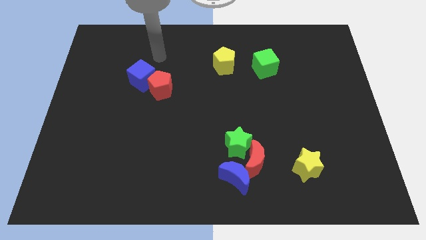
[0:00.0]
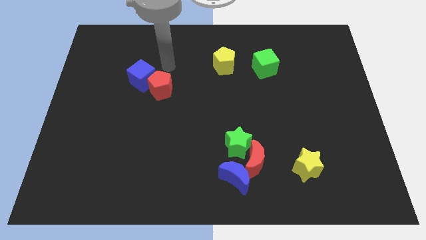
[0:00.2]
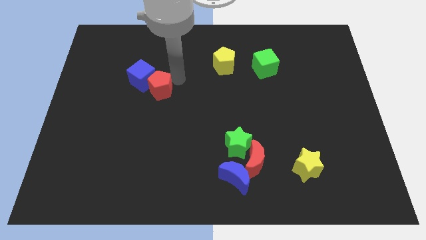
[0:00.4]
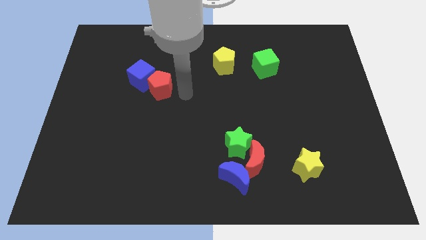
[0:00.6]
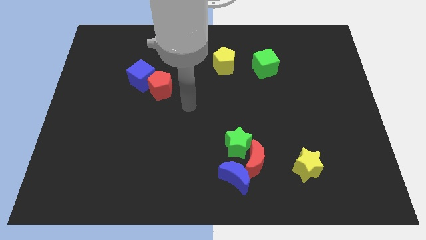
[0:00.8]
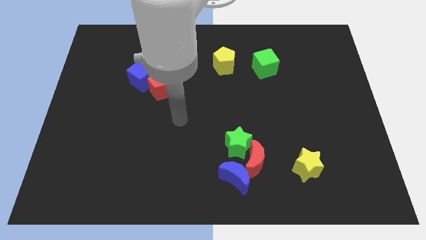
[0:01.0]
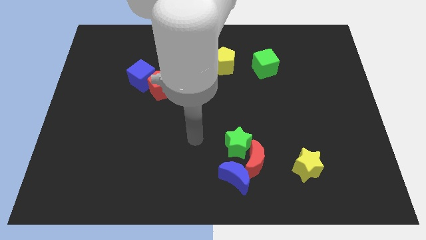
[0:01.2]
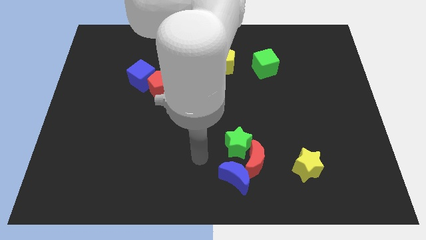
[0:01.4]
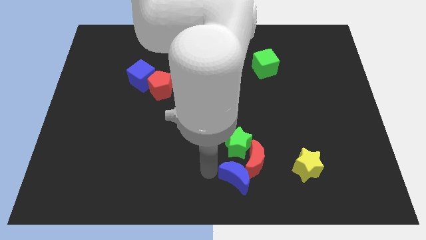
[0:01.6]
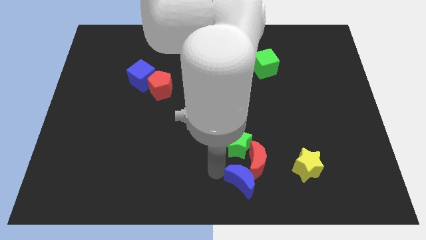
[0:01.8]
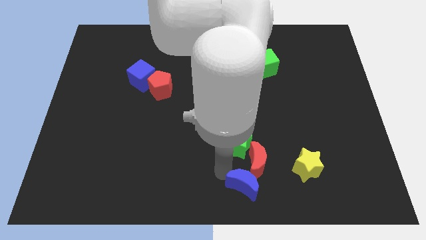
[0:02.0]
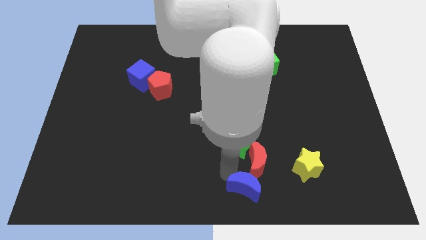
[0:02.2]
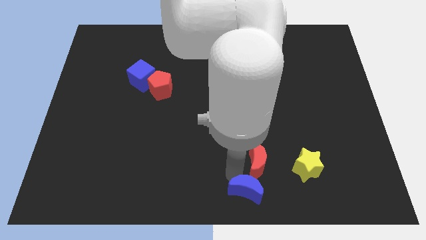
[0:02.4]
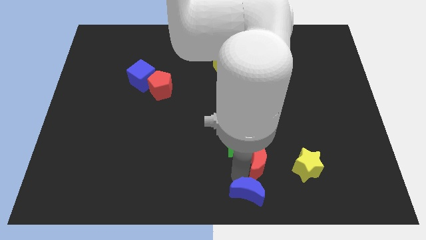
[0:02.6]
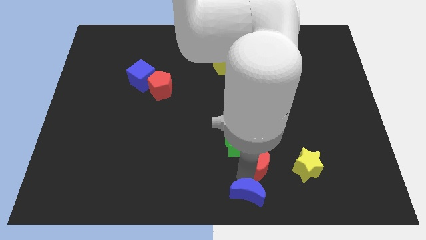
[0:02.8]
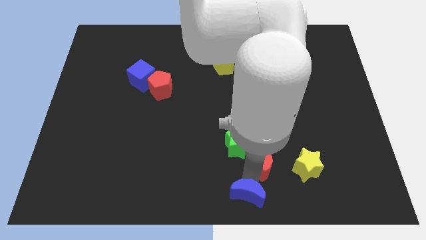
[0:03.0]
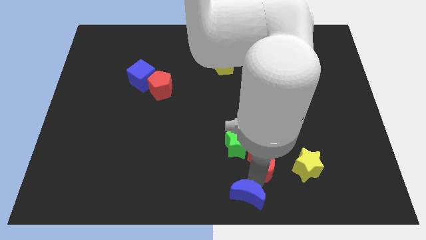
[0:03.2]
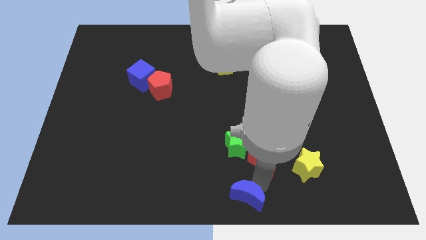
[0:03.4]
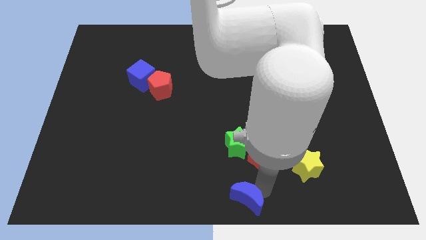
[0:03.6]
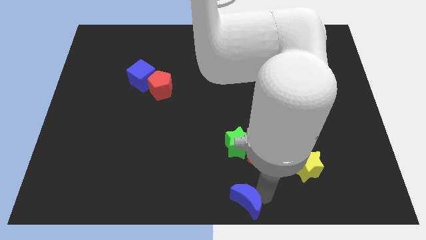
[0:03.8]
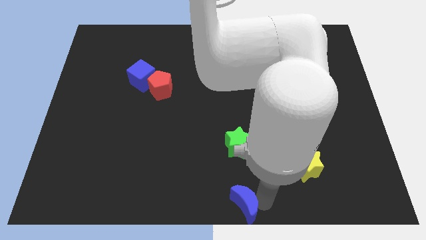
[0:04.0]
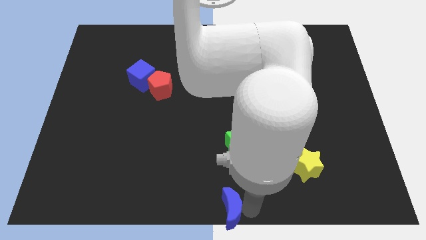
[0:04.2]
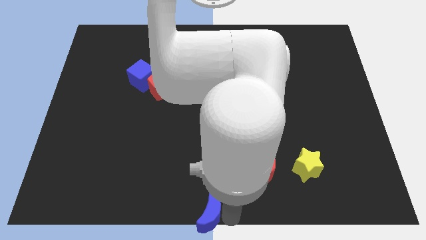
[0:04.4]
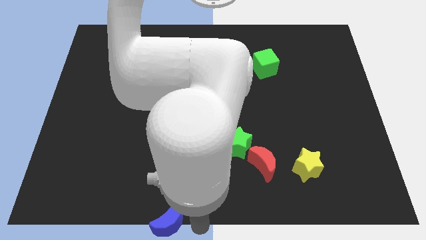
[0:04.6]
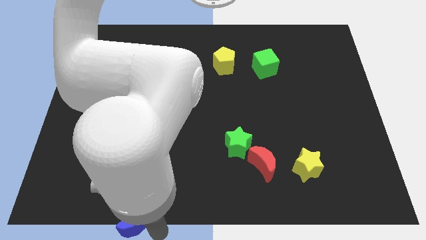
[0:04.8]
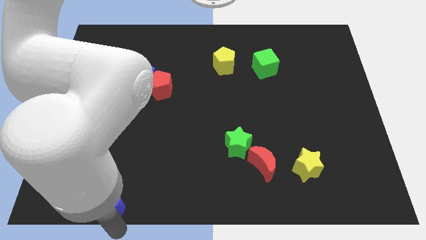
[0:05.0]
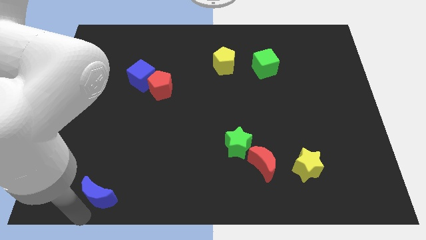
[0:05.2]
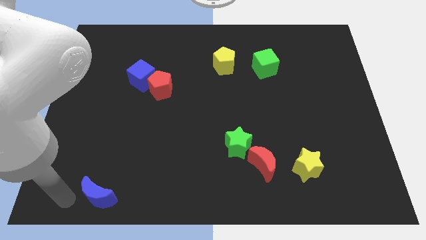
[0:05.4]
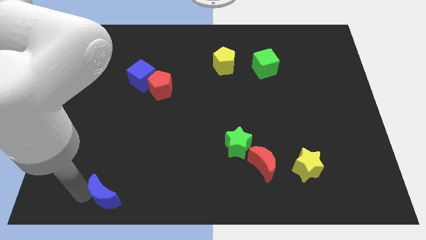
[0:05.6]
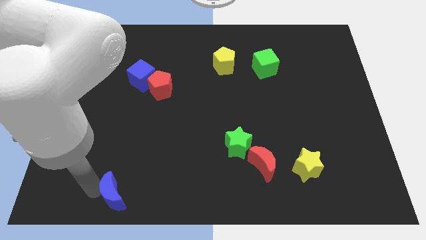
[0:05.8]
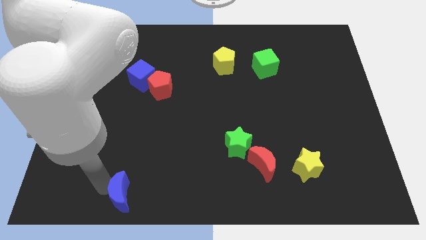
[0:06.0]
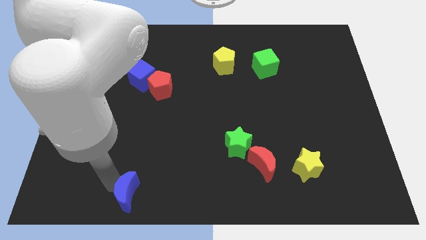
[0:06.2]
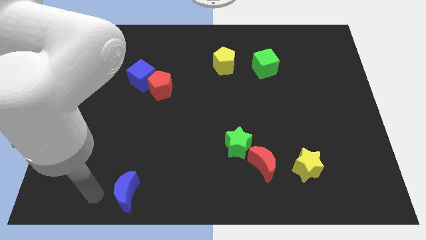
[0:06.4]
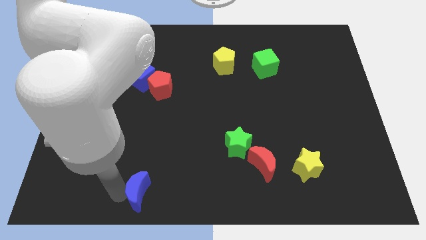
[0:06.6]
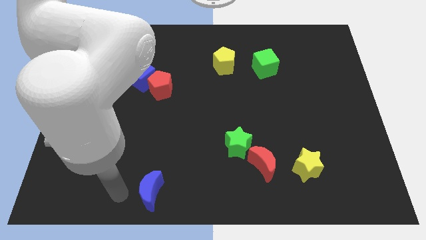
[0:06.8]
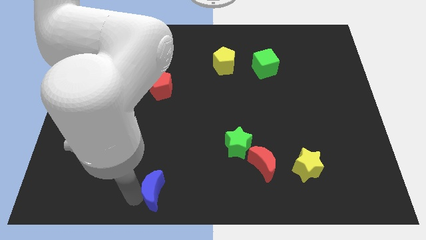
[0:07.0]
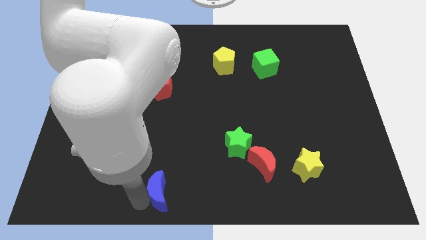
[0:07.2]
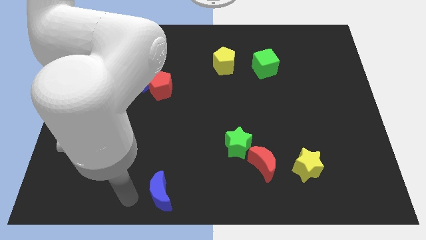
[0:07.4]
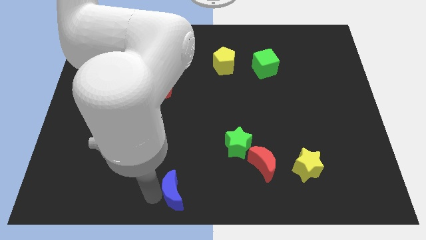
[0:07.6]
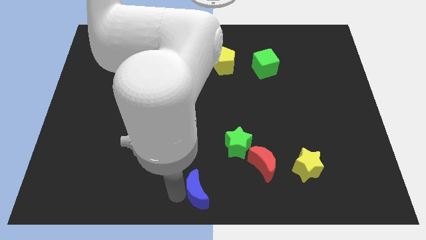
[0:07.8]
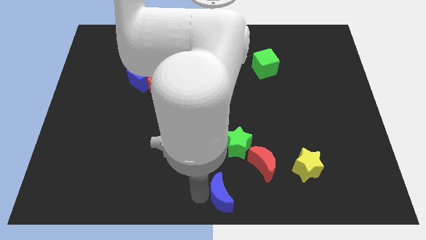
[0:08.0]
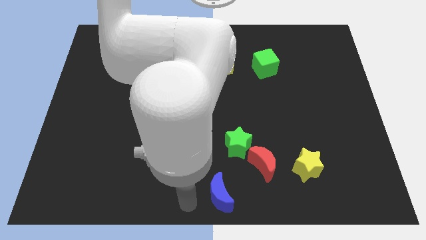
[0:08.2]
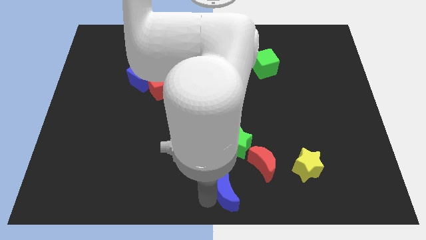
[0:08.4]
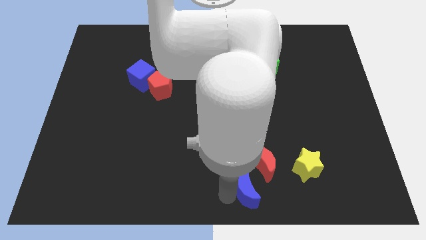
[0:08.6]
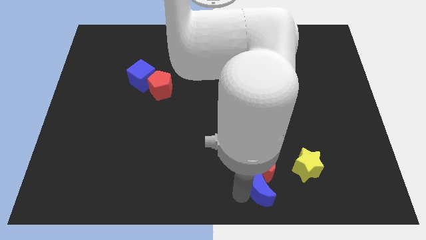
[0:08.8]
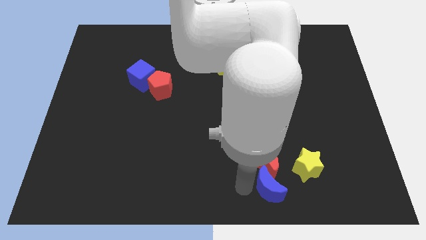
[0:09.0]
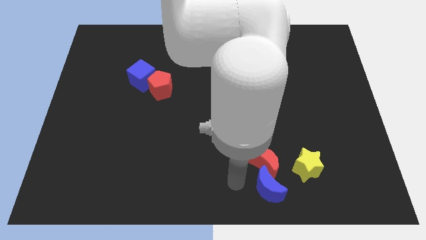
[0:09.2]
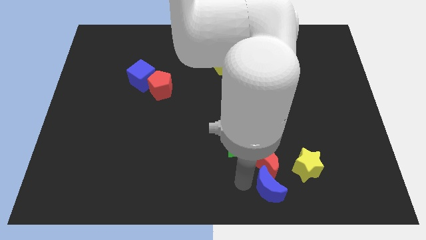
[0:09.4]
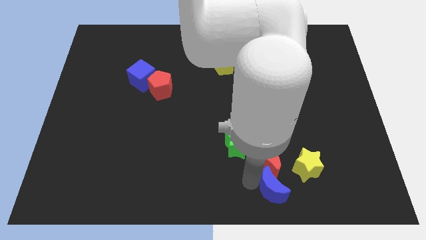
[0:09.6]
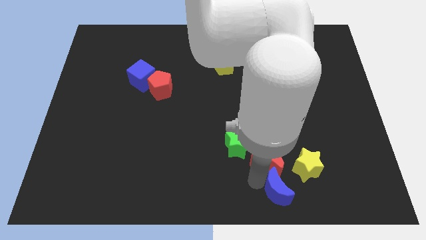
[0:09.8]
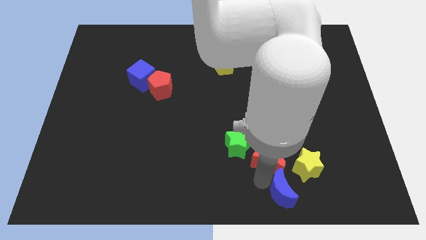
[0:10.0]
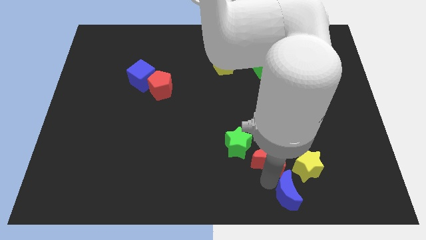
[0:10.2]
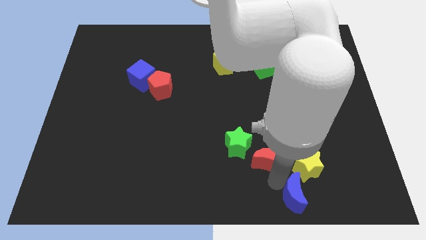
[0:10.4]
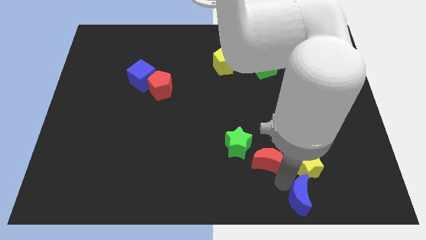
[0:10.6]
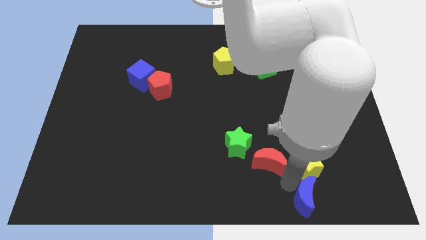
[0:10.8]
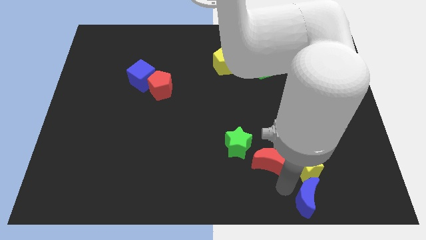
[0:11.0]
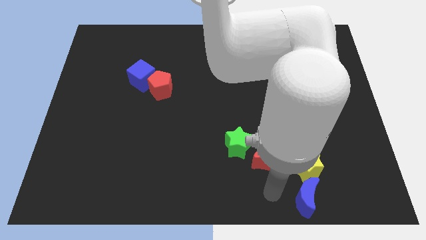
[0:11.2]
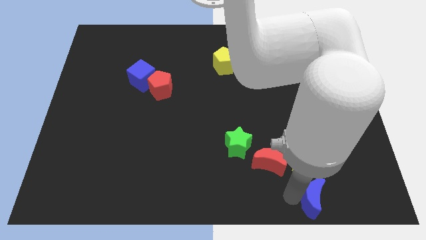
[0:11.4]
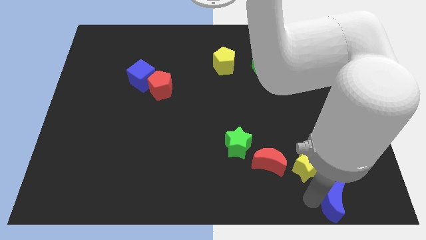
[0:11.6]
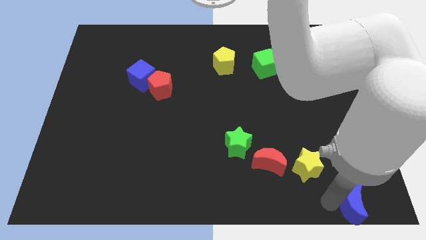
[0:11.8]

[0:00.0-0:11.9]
slide the blue moon to the bottom right of the board

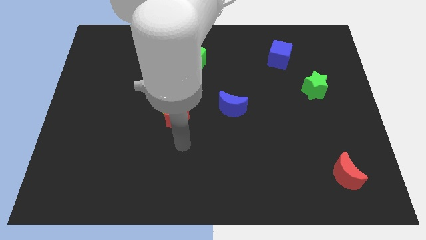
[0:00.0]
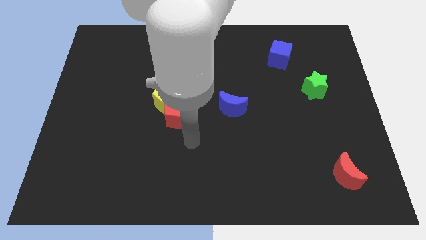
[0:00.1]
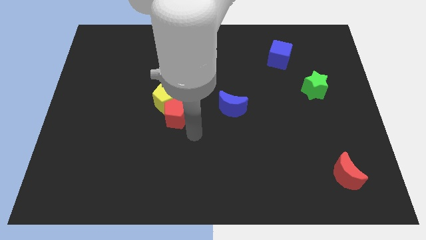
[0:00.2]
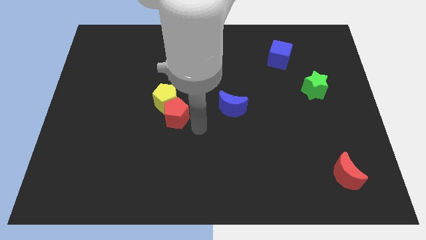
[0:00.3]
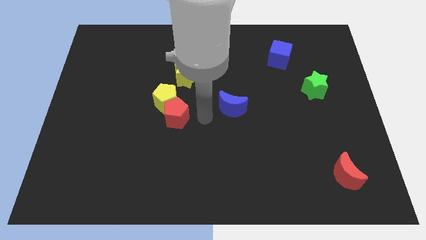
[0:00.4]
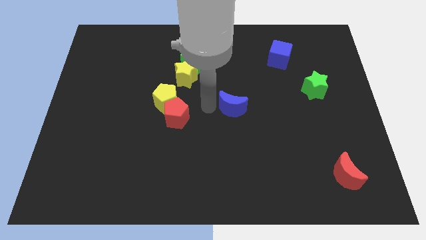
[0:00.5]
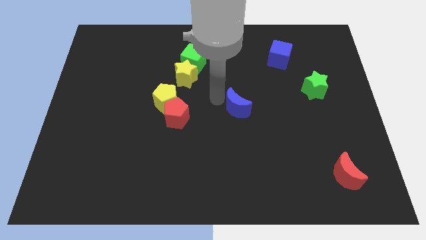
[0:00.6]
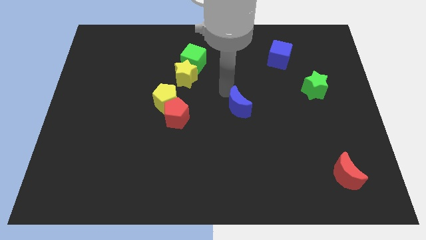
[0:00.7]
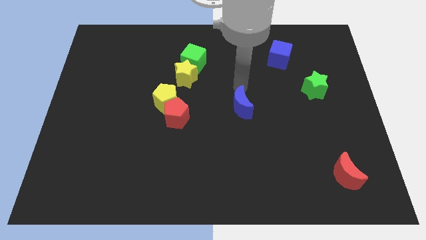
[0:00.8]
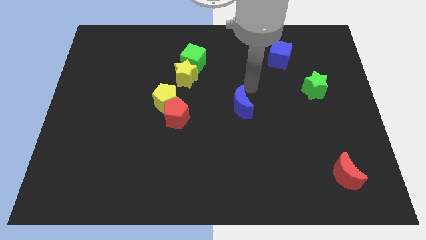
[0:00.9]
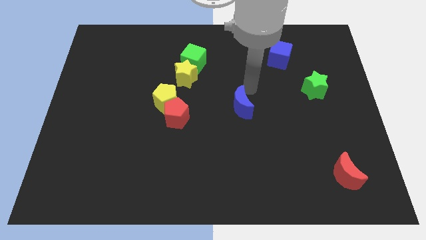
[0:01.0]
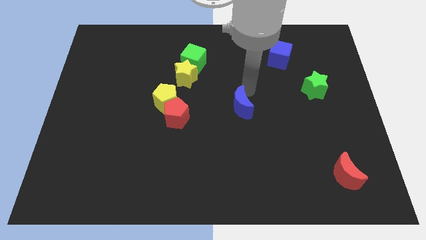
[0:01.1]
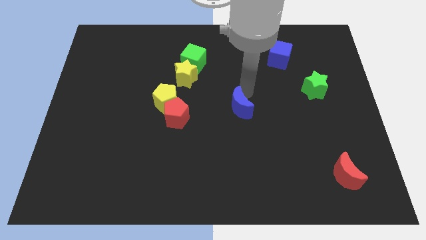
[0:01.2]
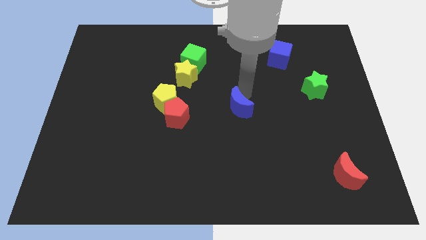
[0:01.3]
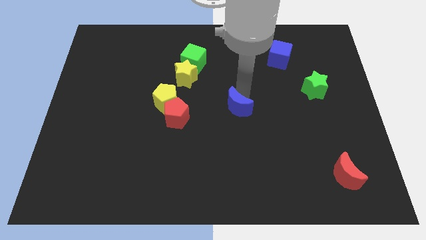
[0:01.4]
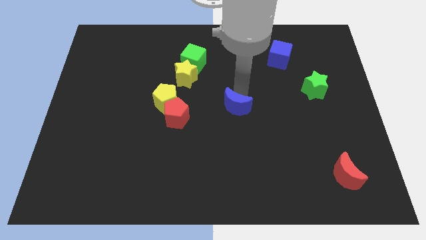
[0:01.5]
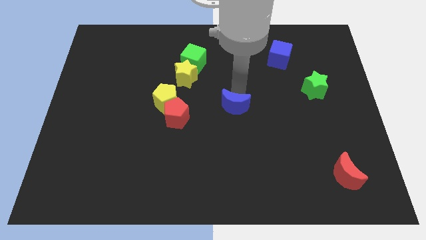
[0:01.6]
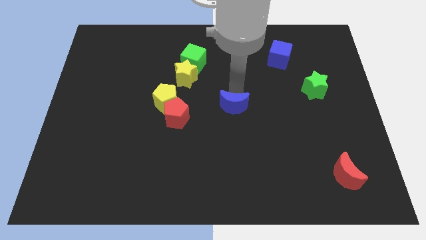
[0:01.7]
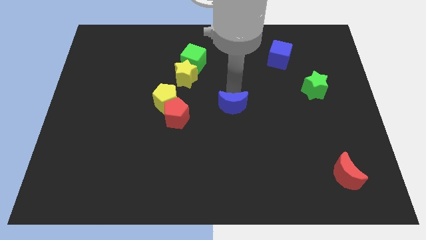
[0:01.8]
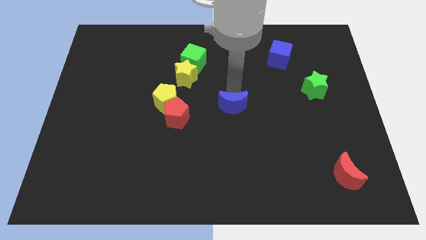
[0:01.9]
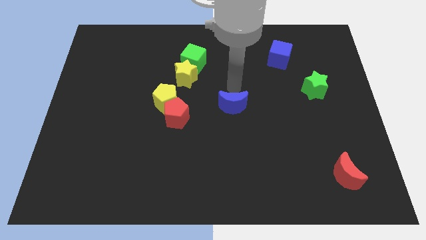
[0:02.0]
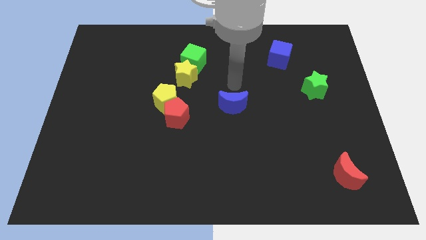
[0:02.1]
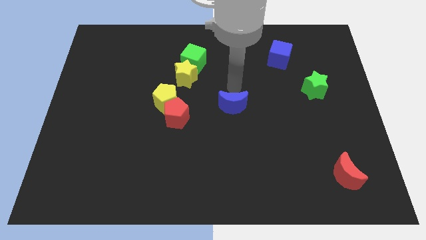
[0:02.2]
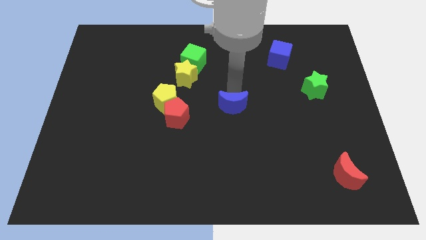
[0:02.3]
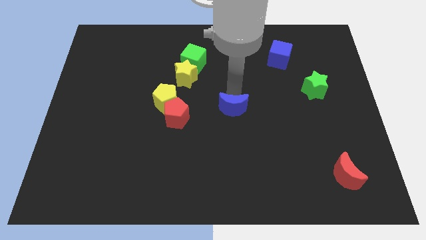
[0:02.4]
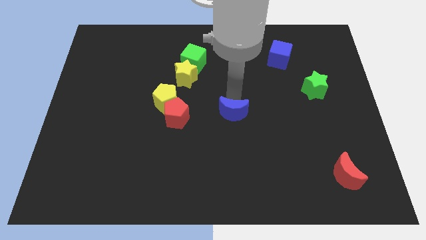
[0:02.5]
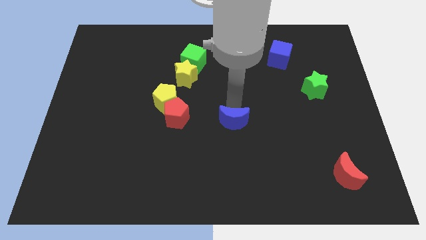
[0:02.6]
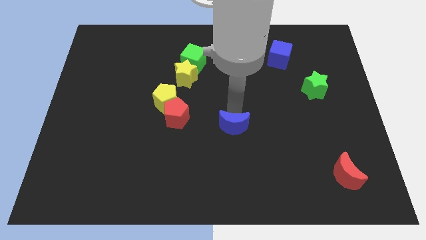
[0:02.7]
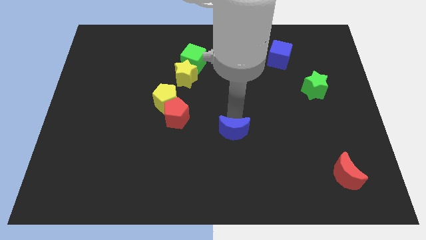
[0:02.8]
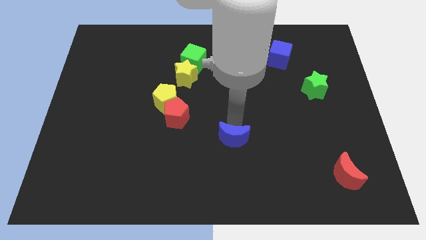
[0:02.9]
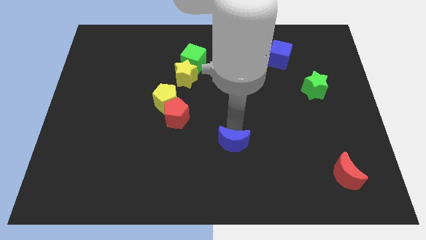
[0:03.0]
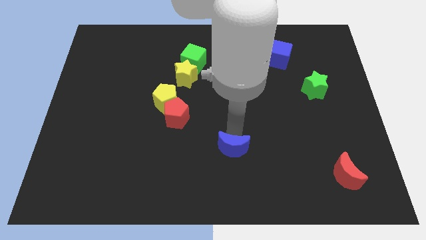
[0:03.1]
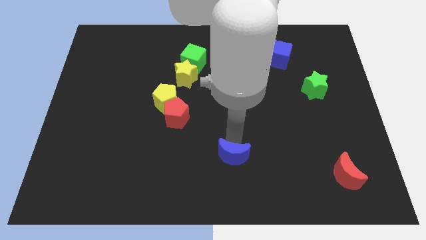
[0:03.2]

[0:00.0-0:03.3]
put the blue moon to the bottom
